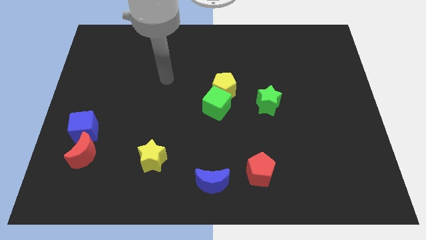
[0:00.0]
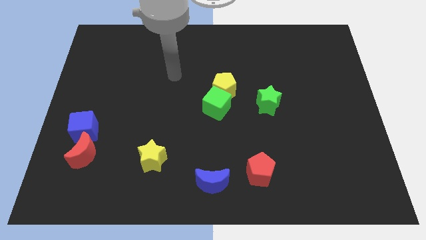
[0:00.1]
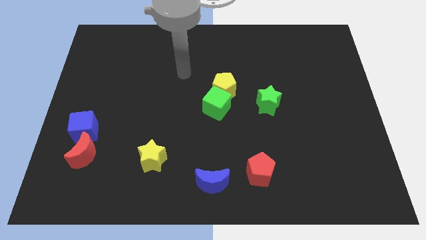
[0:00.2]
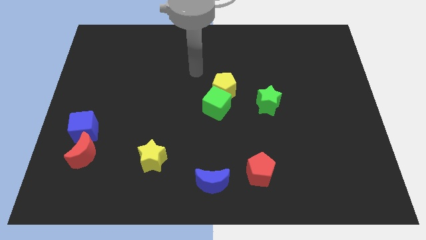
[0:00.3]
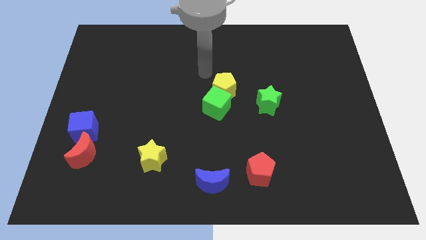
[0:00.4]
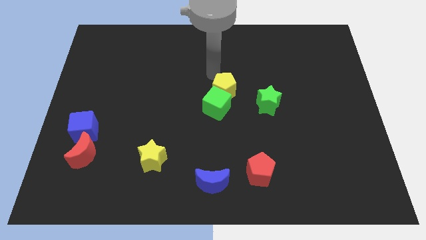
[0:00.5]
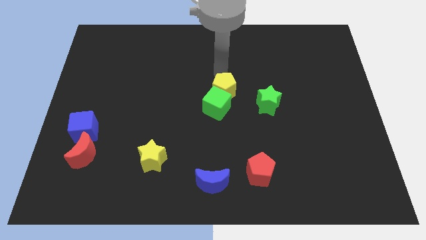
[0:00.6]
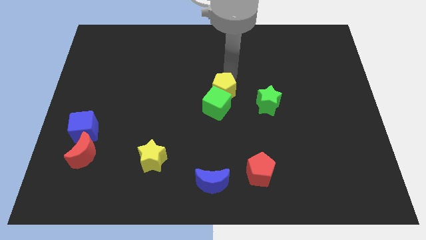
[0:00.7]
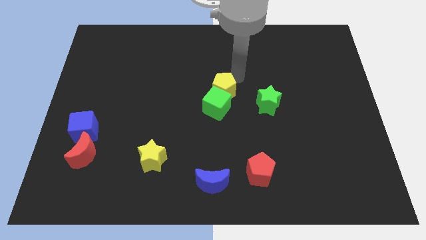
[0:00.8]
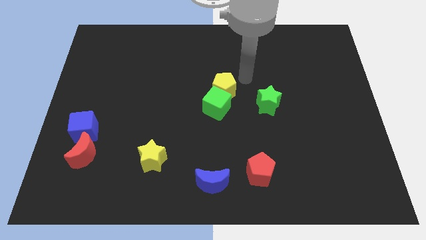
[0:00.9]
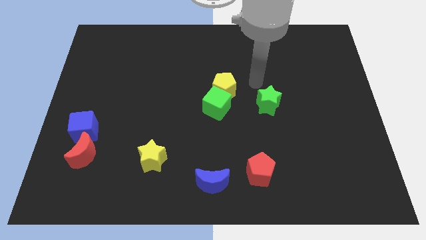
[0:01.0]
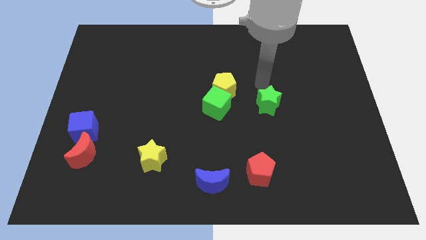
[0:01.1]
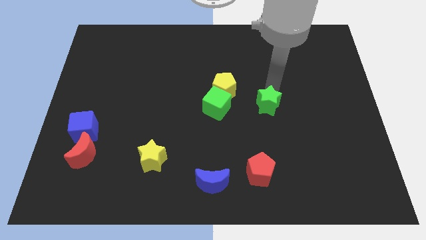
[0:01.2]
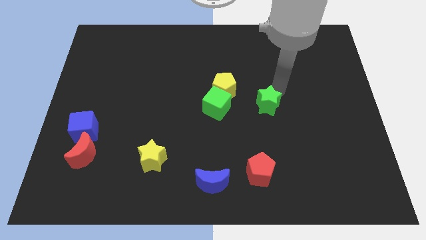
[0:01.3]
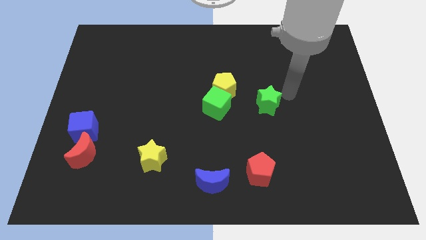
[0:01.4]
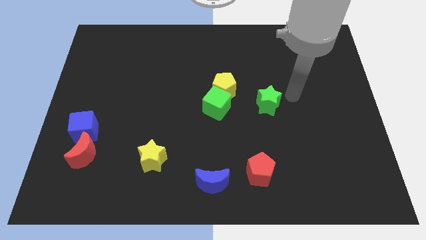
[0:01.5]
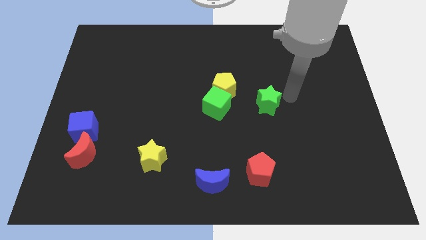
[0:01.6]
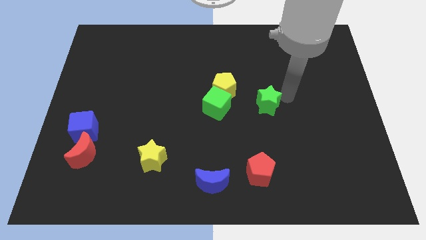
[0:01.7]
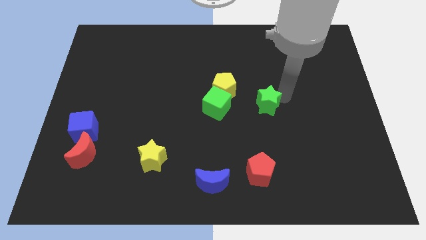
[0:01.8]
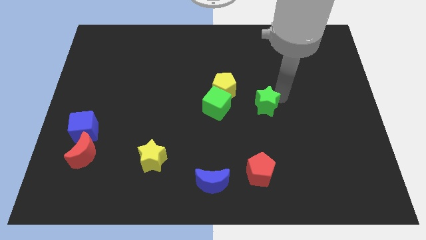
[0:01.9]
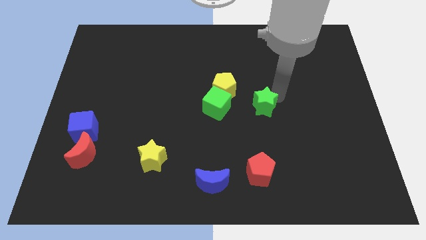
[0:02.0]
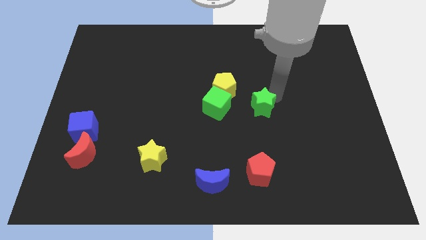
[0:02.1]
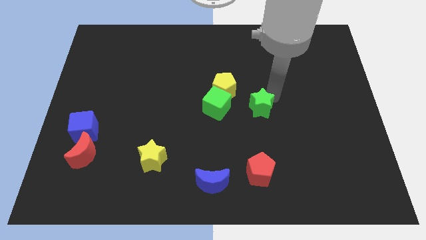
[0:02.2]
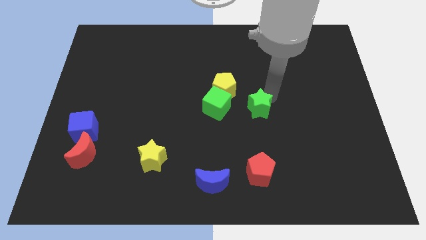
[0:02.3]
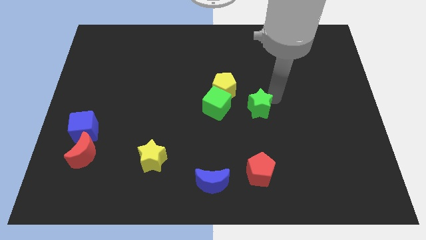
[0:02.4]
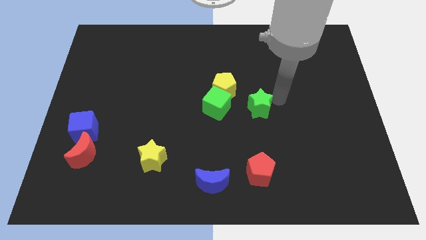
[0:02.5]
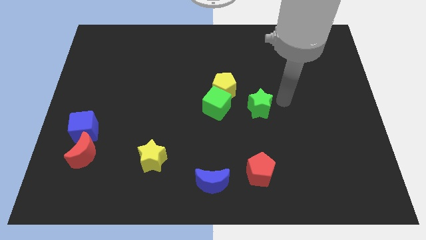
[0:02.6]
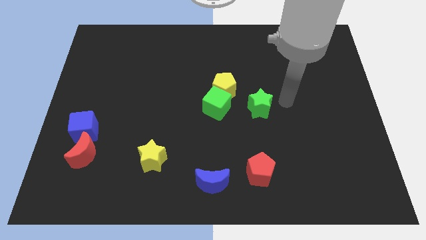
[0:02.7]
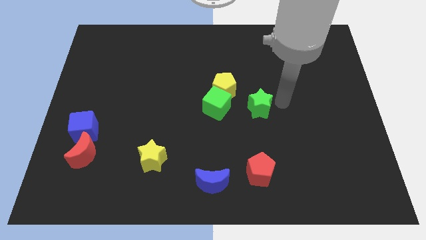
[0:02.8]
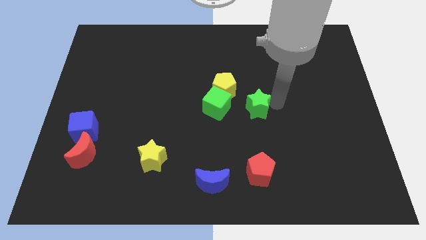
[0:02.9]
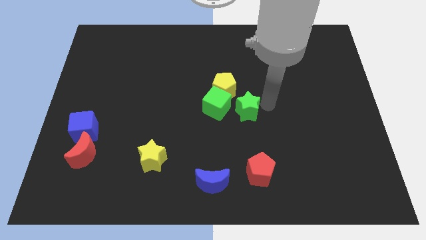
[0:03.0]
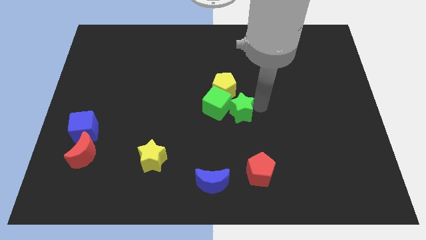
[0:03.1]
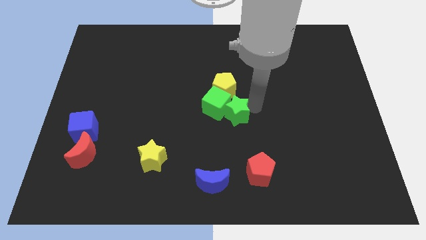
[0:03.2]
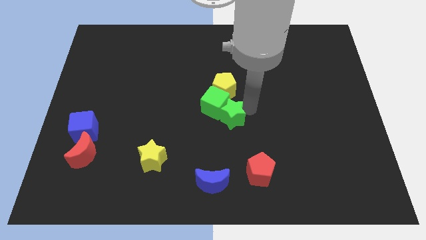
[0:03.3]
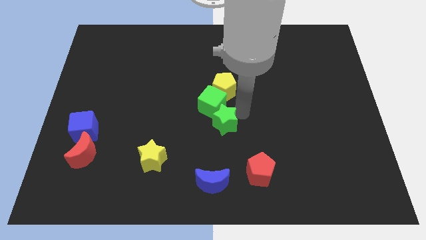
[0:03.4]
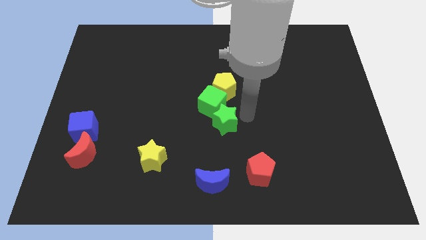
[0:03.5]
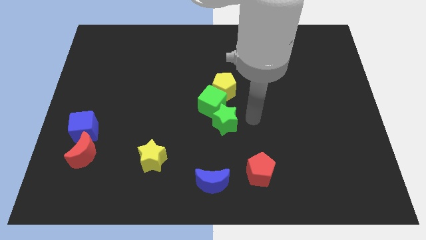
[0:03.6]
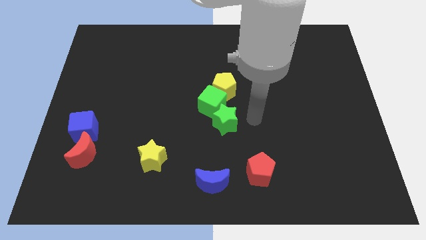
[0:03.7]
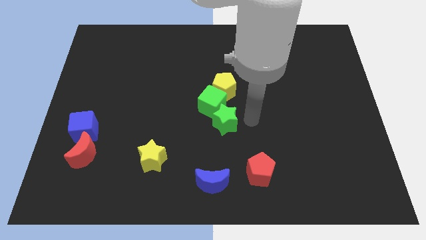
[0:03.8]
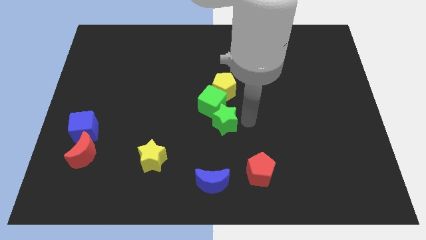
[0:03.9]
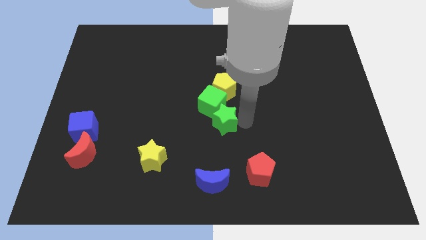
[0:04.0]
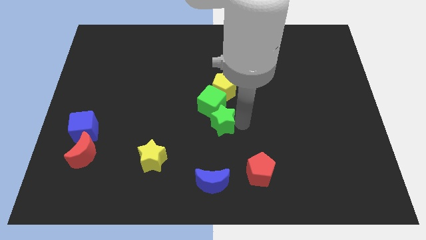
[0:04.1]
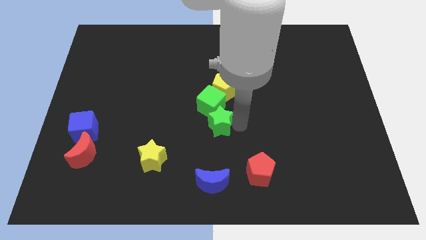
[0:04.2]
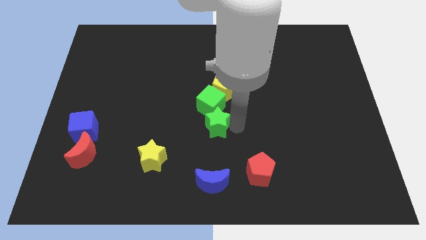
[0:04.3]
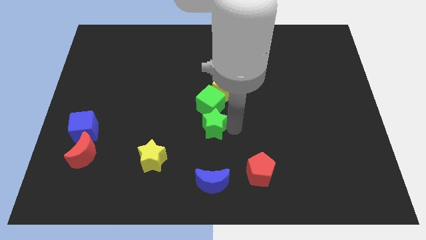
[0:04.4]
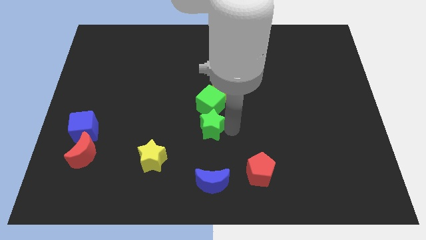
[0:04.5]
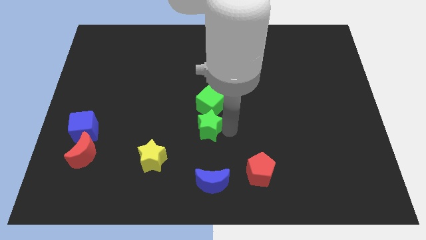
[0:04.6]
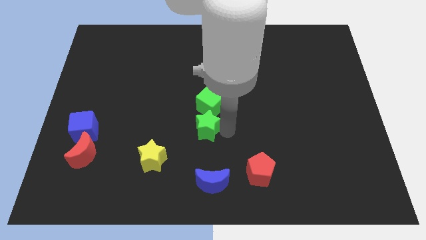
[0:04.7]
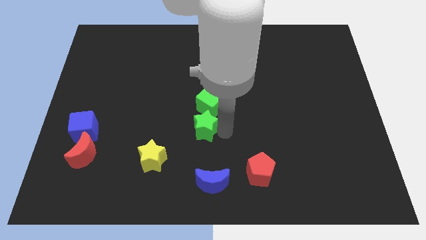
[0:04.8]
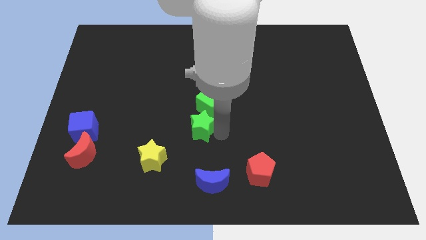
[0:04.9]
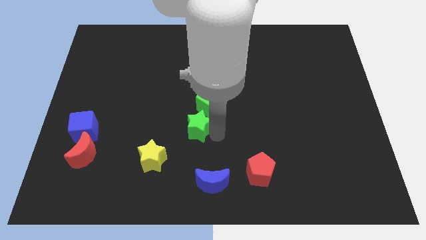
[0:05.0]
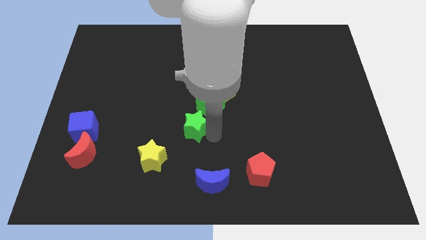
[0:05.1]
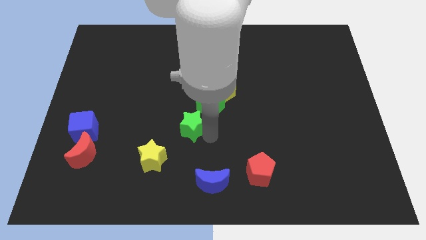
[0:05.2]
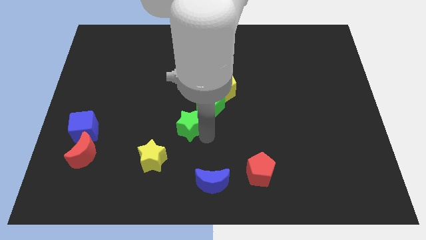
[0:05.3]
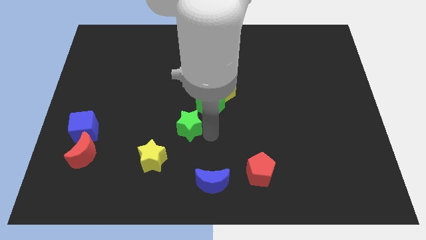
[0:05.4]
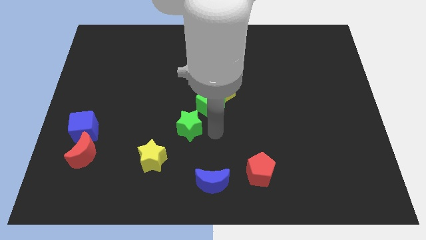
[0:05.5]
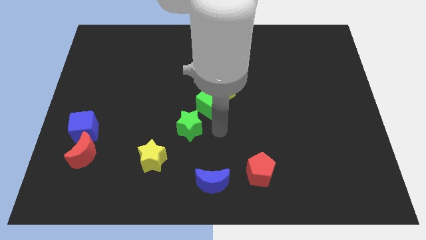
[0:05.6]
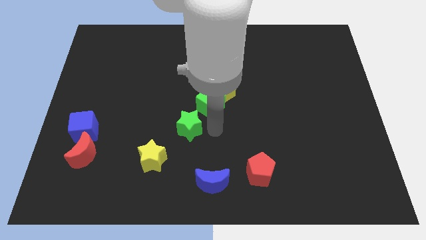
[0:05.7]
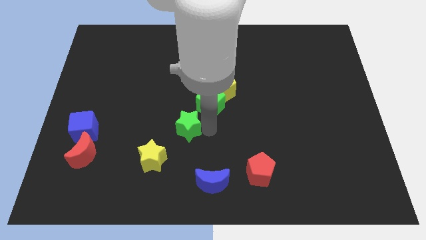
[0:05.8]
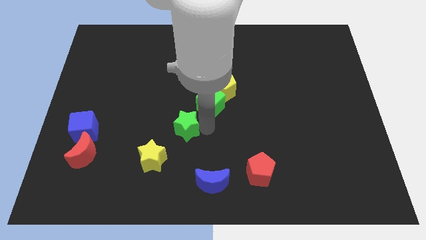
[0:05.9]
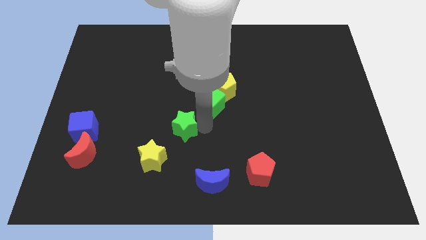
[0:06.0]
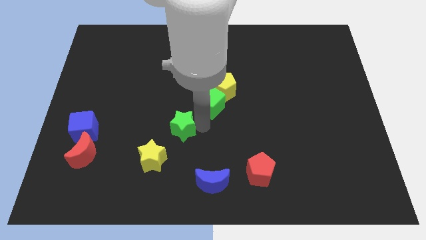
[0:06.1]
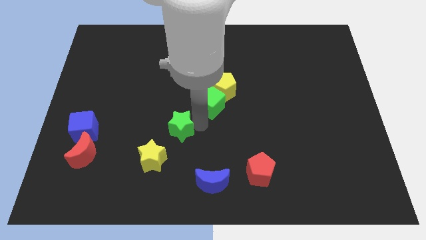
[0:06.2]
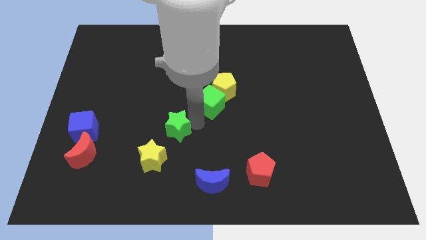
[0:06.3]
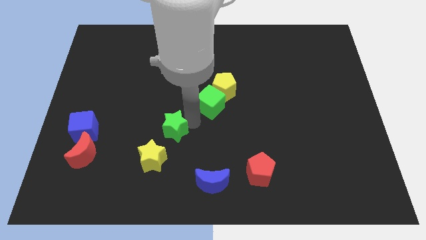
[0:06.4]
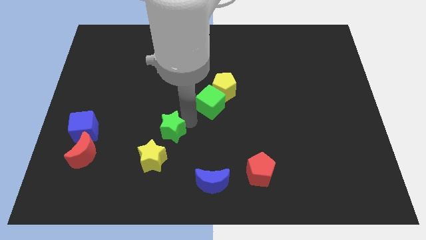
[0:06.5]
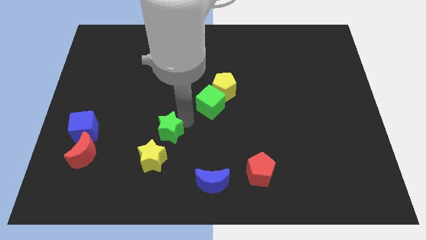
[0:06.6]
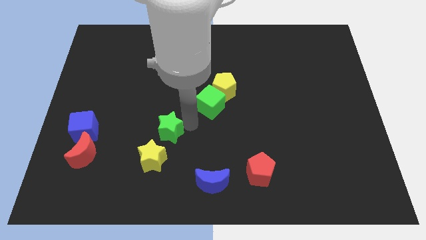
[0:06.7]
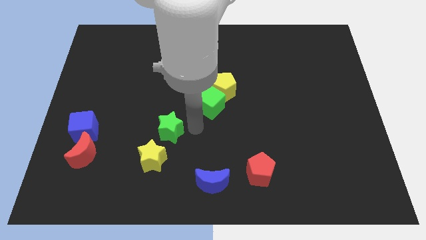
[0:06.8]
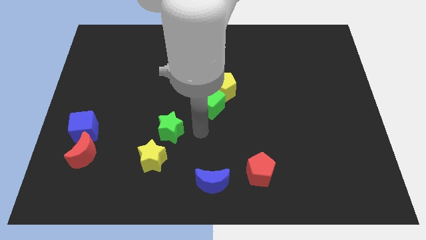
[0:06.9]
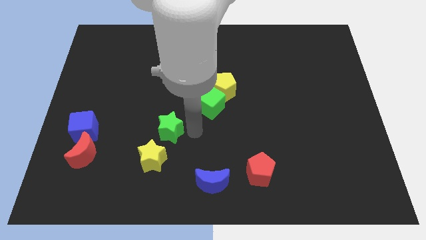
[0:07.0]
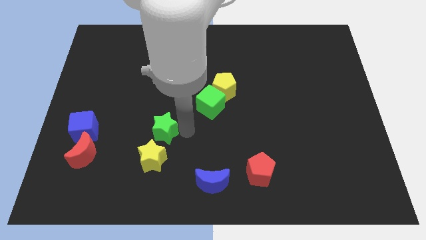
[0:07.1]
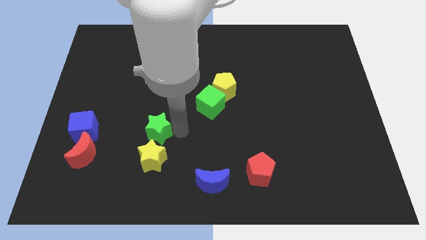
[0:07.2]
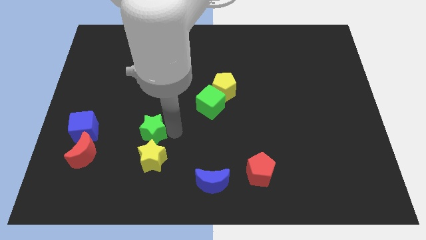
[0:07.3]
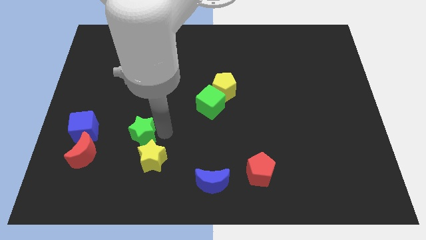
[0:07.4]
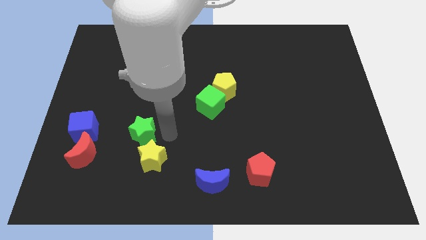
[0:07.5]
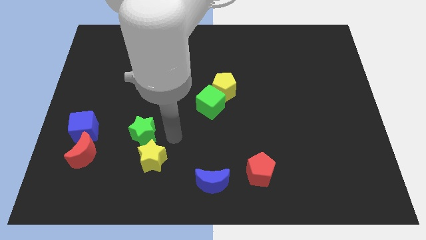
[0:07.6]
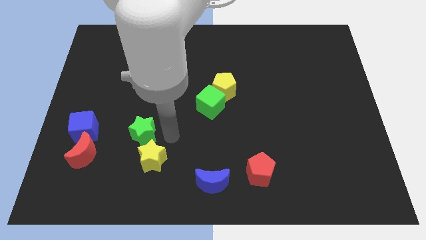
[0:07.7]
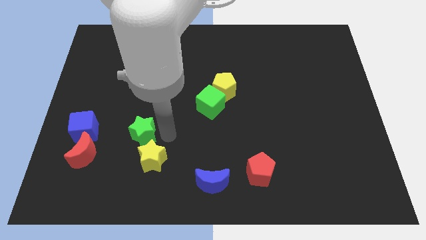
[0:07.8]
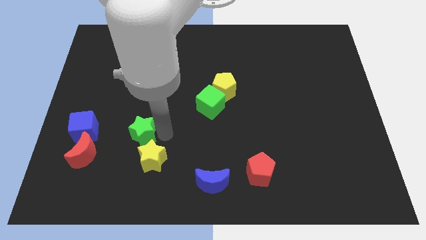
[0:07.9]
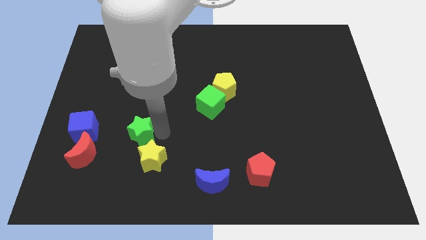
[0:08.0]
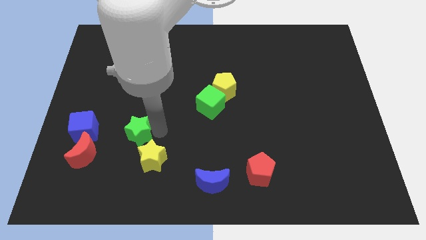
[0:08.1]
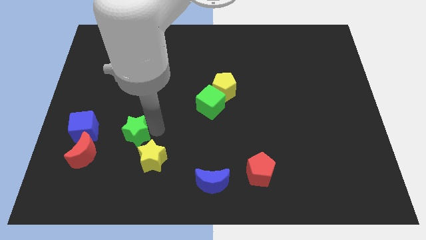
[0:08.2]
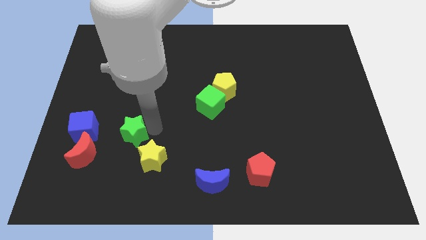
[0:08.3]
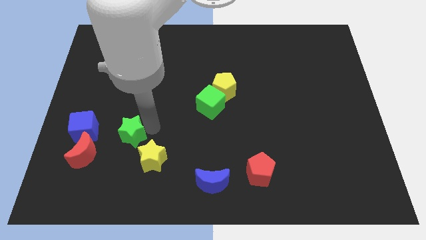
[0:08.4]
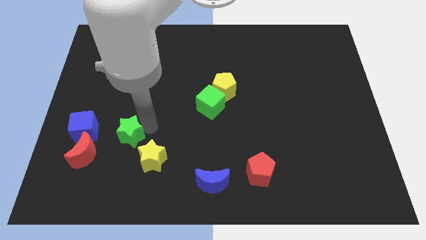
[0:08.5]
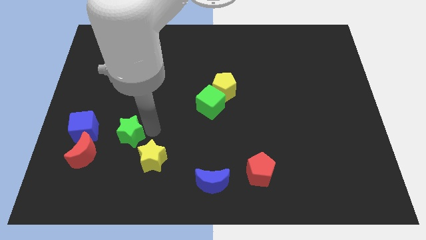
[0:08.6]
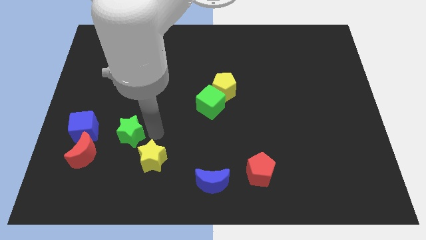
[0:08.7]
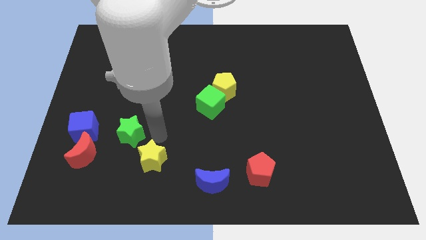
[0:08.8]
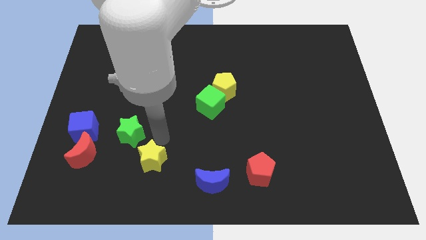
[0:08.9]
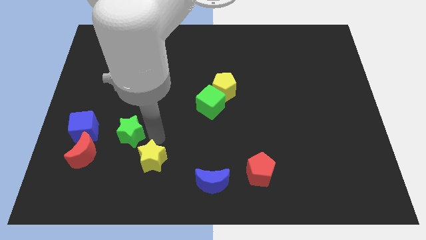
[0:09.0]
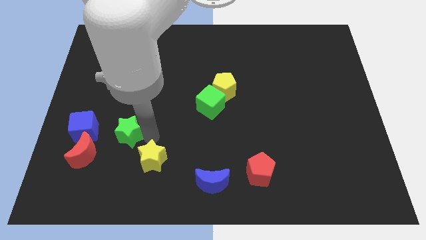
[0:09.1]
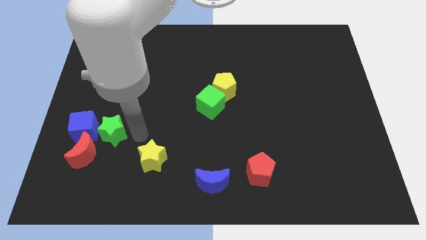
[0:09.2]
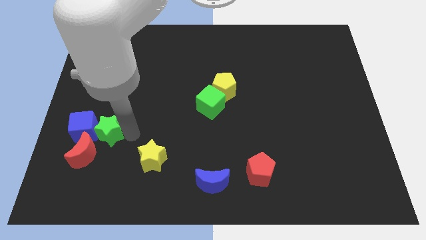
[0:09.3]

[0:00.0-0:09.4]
push the green star towards the blue cube
